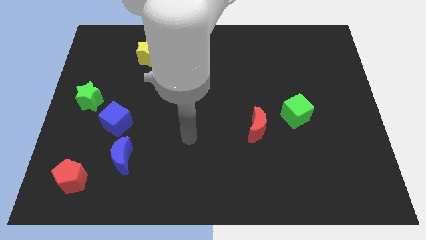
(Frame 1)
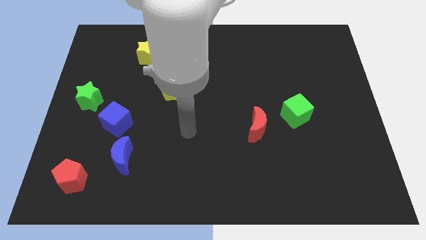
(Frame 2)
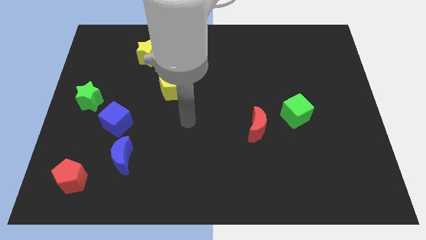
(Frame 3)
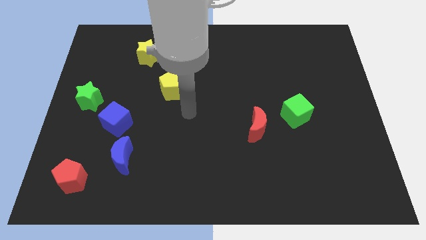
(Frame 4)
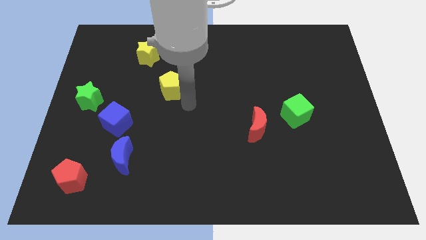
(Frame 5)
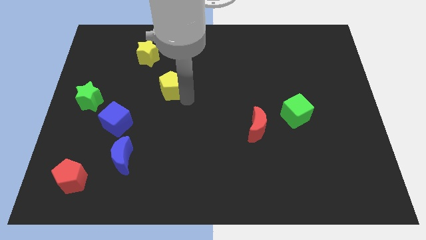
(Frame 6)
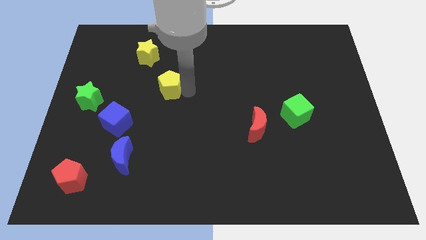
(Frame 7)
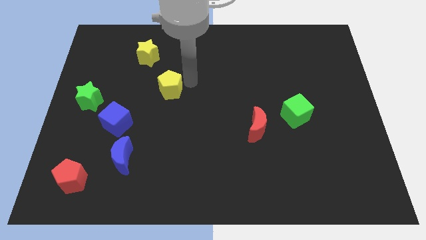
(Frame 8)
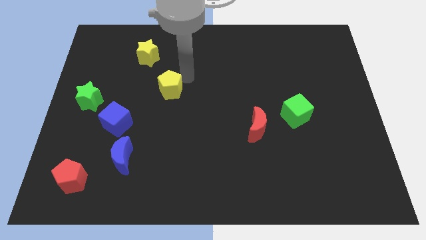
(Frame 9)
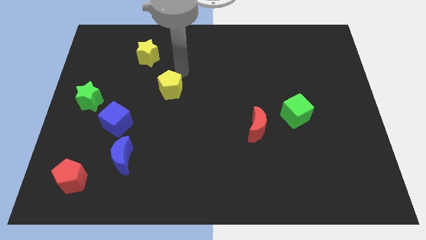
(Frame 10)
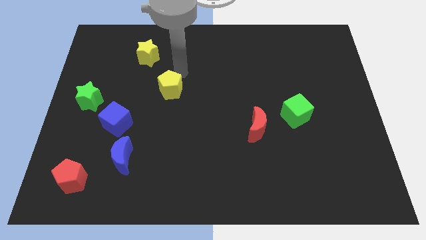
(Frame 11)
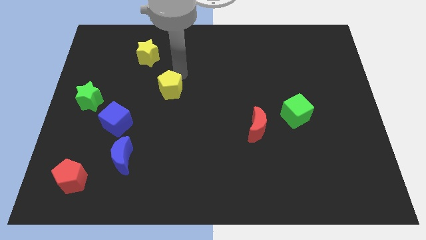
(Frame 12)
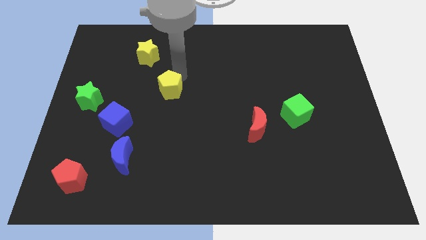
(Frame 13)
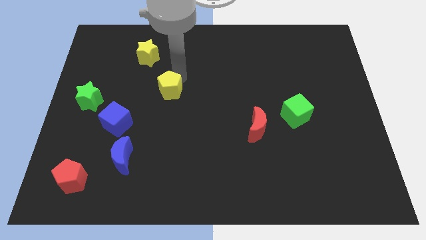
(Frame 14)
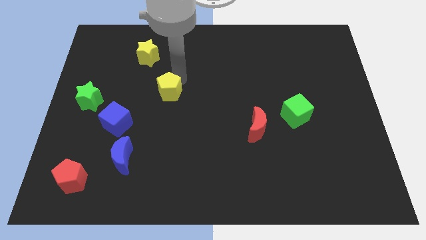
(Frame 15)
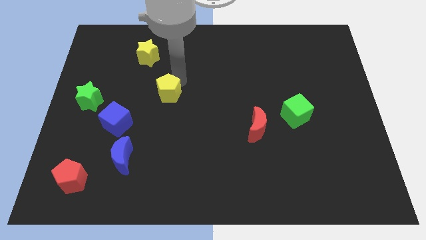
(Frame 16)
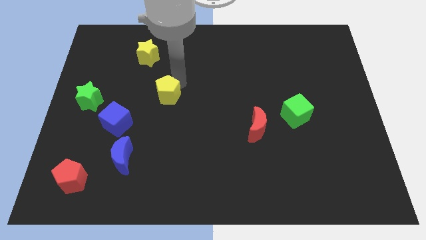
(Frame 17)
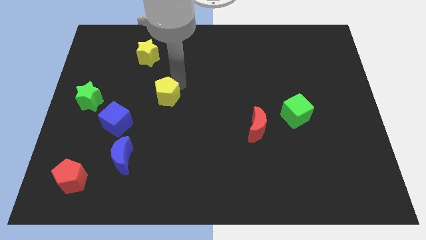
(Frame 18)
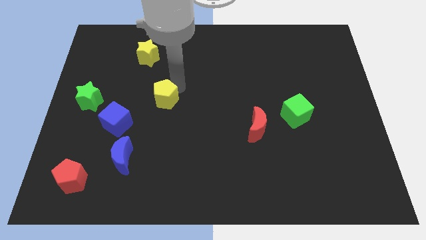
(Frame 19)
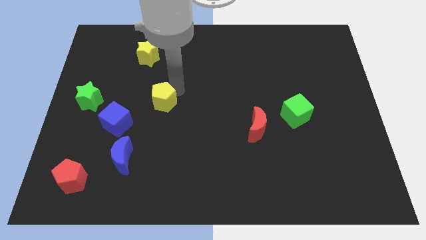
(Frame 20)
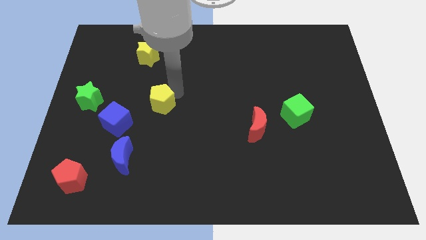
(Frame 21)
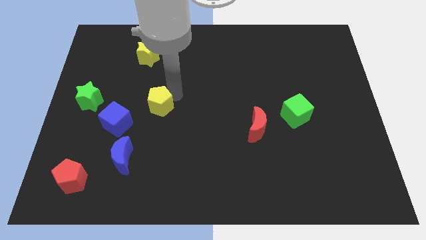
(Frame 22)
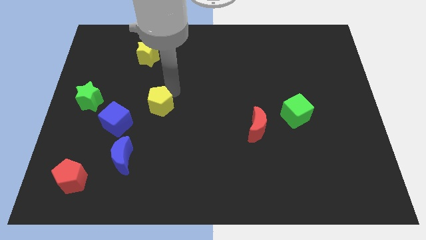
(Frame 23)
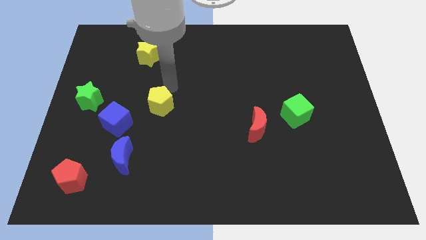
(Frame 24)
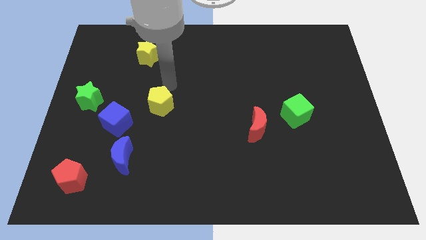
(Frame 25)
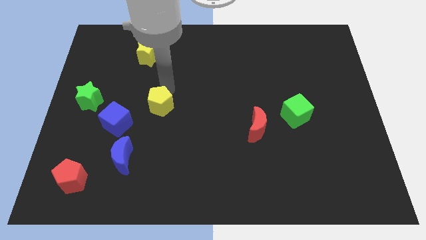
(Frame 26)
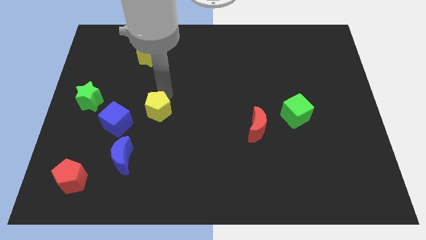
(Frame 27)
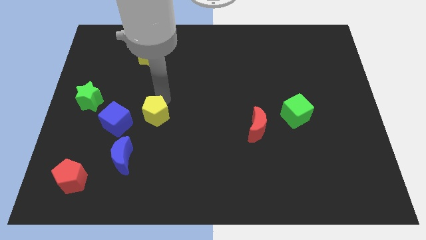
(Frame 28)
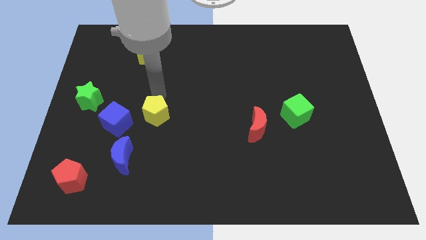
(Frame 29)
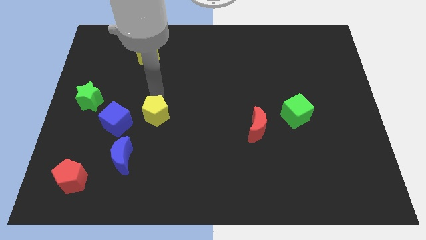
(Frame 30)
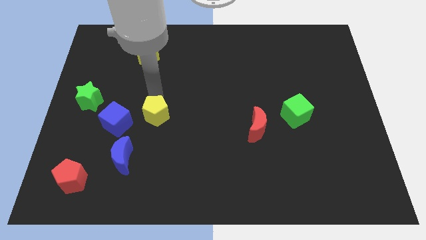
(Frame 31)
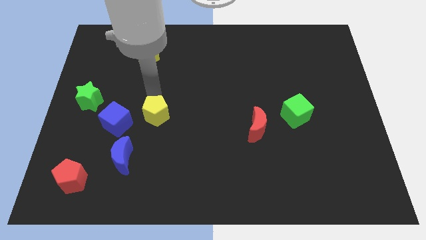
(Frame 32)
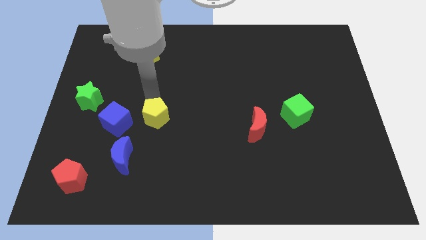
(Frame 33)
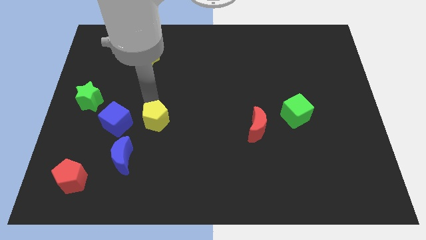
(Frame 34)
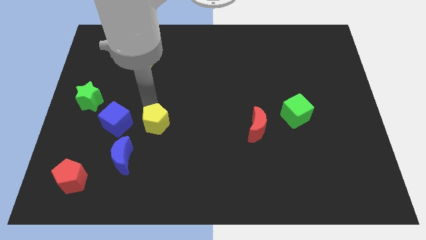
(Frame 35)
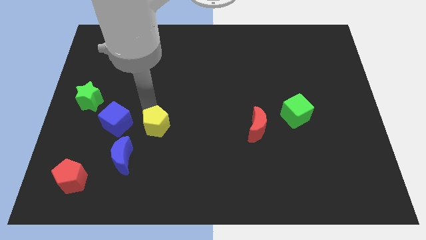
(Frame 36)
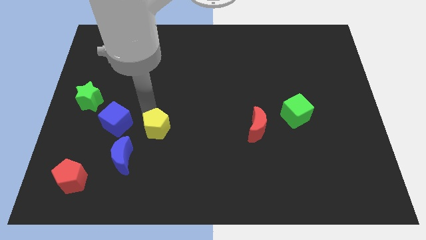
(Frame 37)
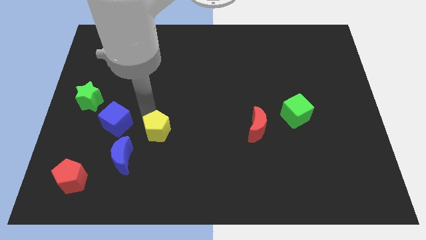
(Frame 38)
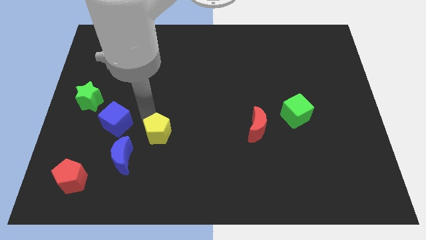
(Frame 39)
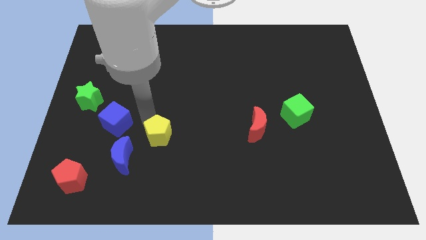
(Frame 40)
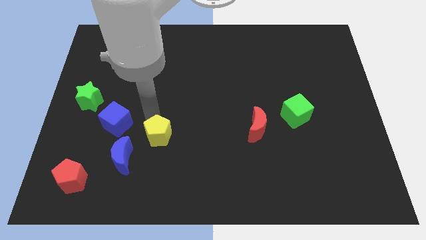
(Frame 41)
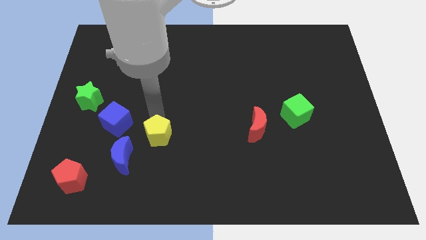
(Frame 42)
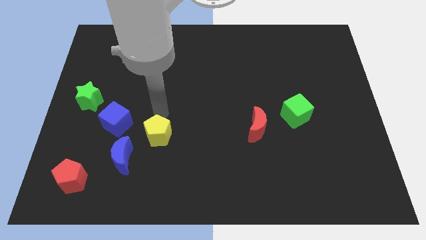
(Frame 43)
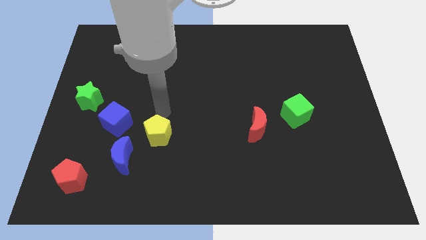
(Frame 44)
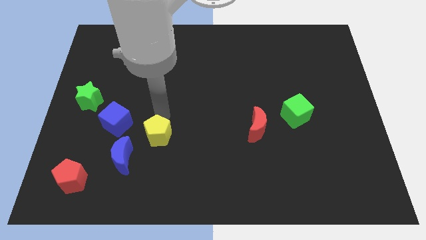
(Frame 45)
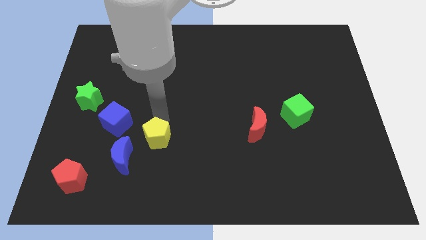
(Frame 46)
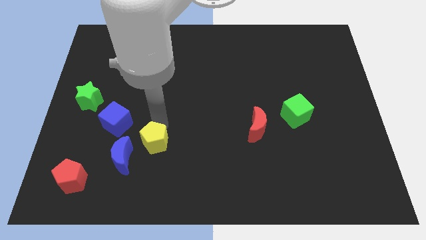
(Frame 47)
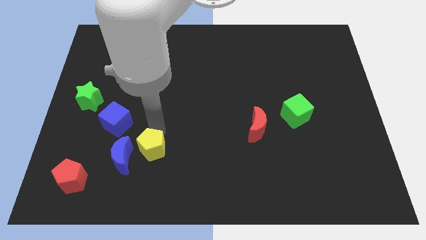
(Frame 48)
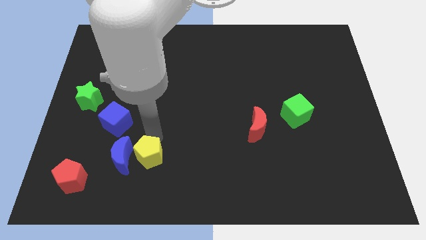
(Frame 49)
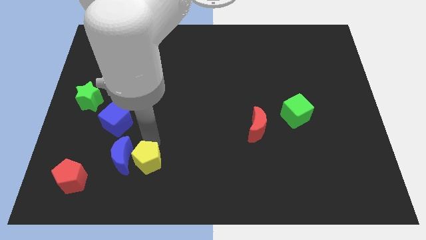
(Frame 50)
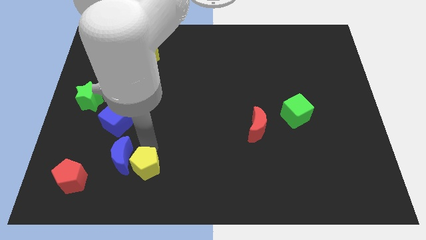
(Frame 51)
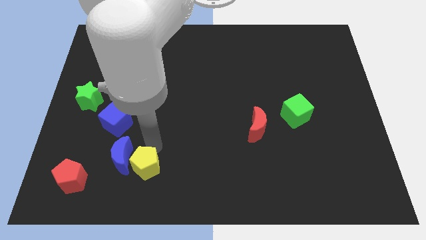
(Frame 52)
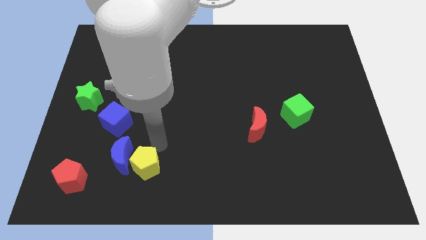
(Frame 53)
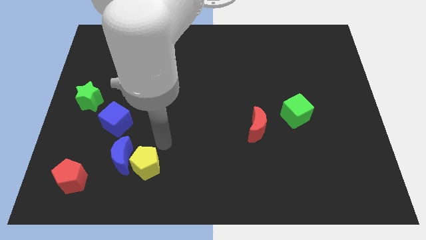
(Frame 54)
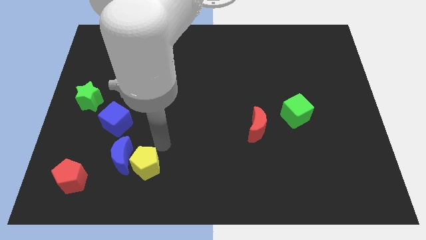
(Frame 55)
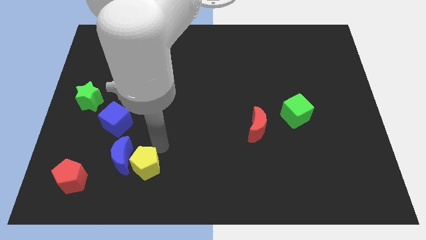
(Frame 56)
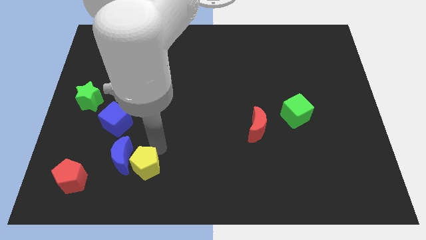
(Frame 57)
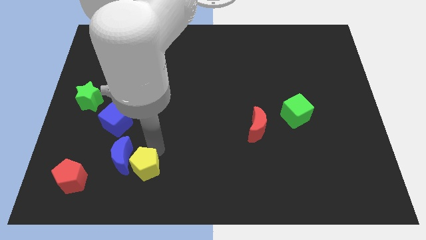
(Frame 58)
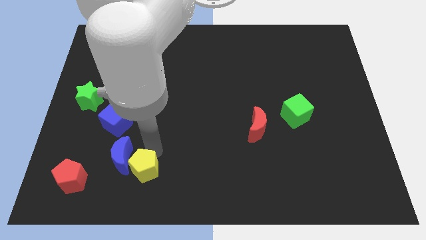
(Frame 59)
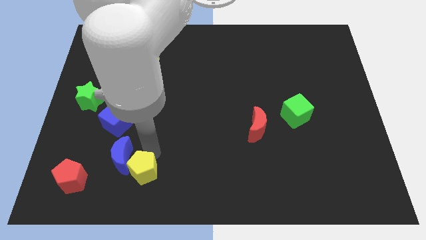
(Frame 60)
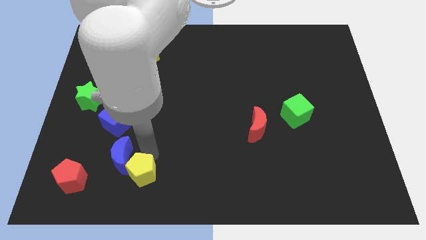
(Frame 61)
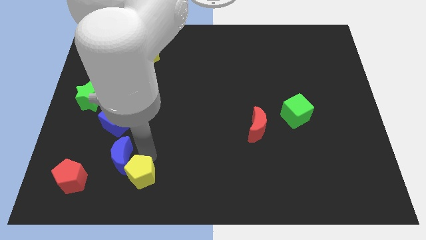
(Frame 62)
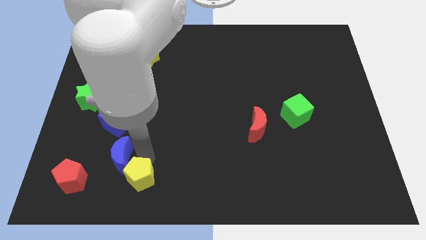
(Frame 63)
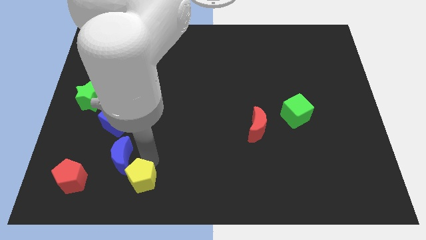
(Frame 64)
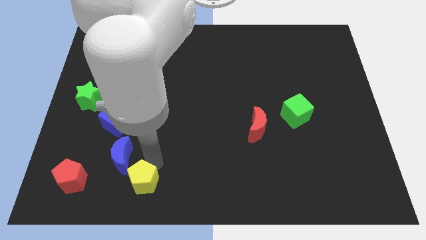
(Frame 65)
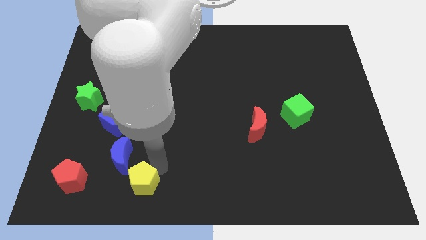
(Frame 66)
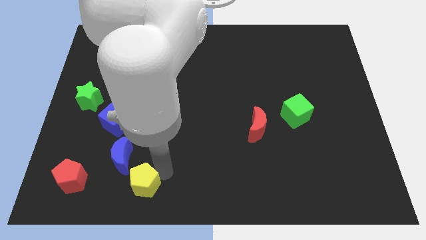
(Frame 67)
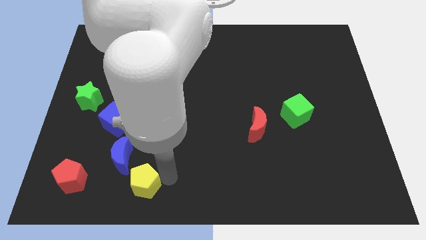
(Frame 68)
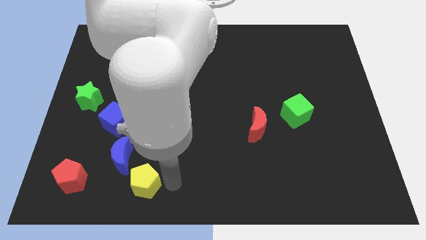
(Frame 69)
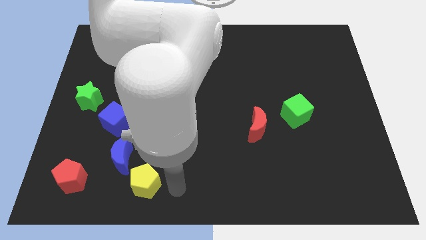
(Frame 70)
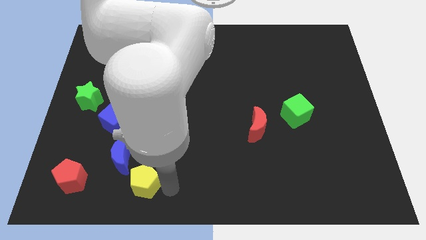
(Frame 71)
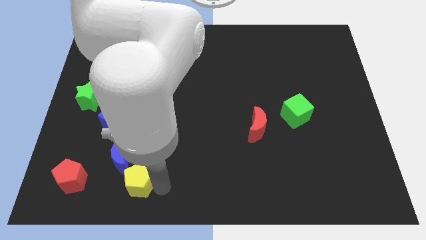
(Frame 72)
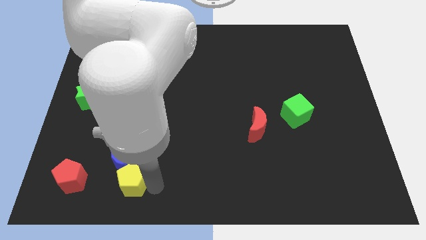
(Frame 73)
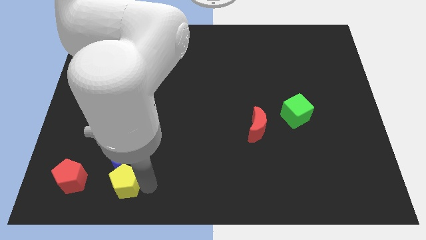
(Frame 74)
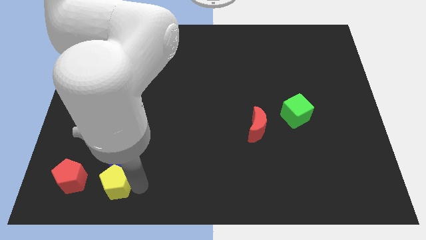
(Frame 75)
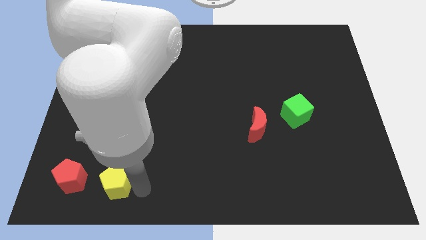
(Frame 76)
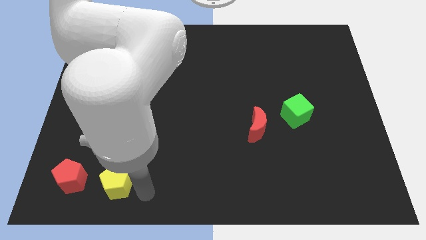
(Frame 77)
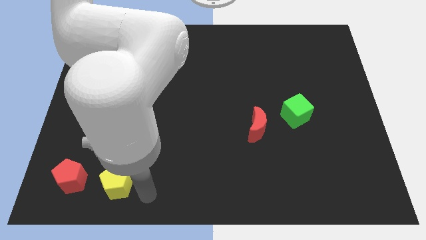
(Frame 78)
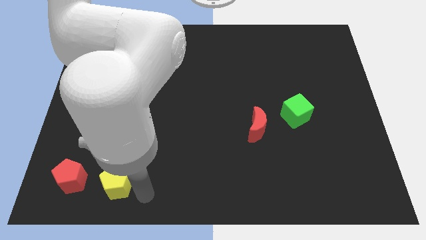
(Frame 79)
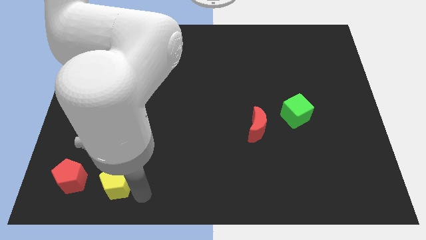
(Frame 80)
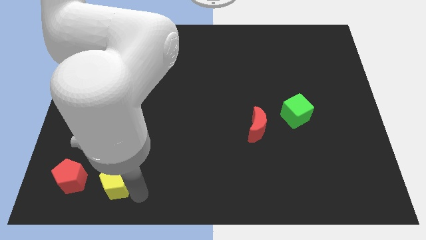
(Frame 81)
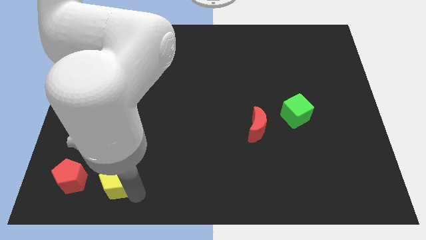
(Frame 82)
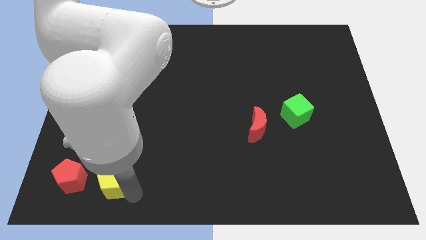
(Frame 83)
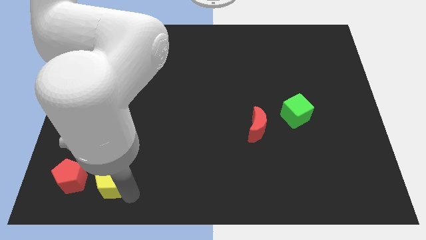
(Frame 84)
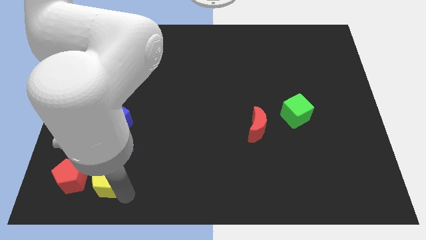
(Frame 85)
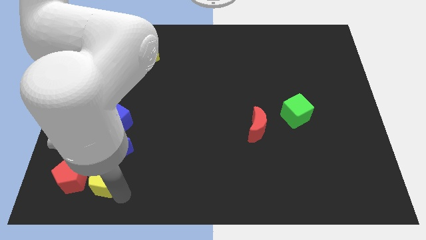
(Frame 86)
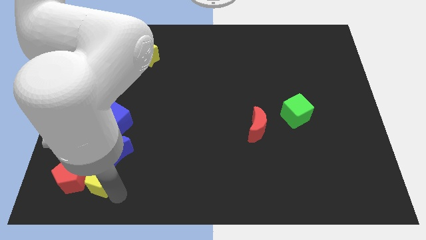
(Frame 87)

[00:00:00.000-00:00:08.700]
move the yellow pentagon to the red pentagon
